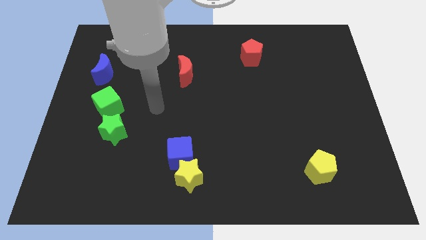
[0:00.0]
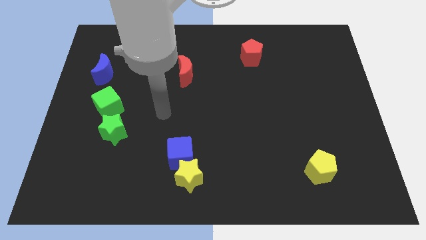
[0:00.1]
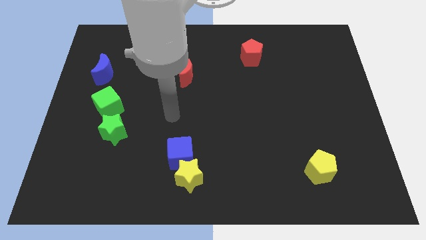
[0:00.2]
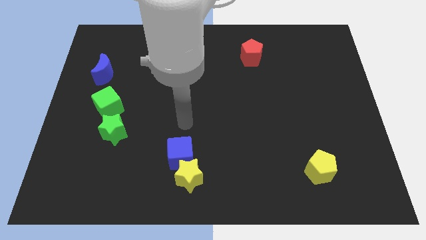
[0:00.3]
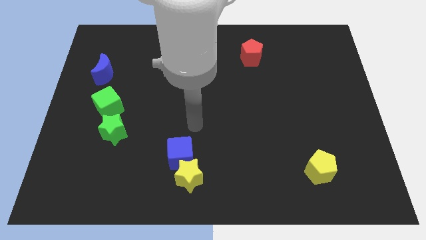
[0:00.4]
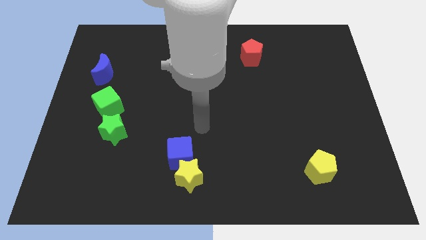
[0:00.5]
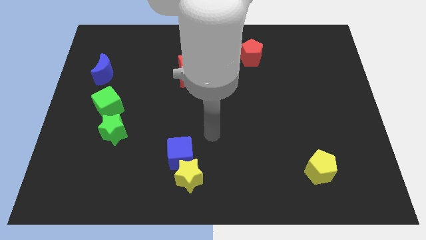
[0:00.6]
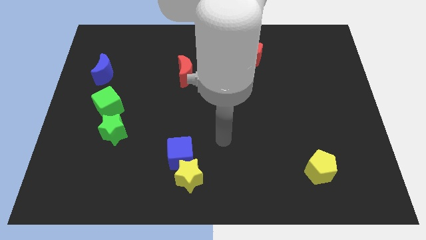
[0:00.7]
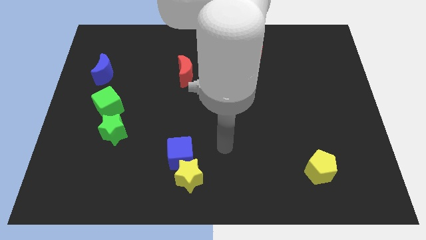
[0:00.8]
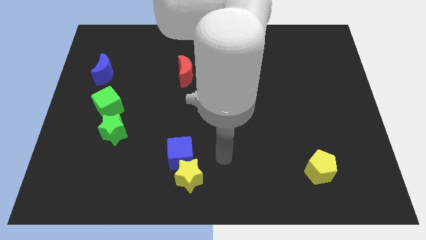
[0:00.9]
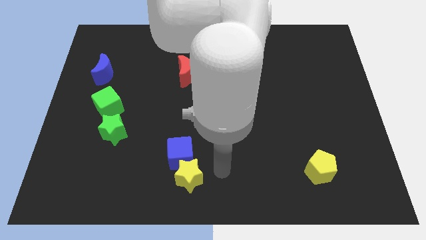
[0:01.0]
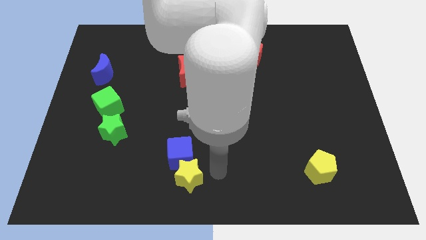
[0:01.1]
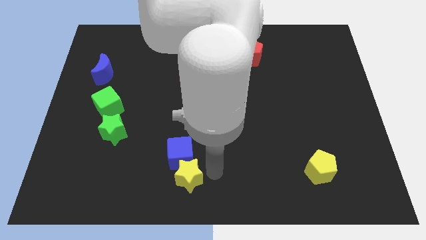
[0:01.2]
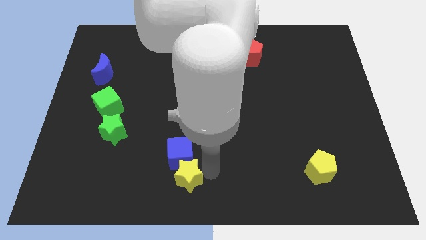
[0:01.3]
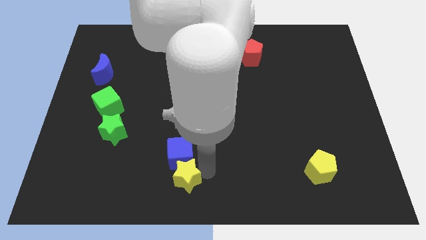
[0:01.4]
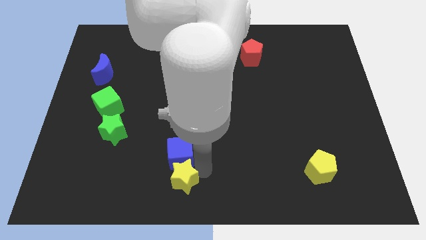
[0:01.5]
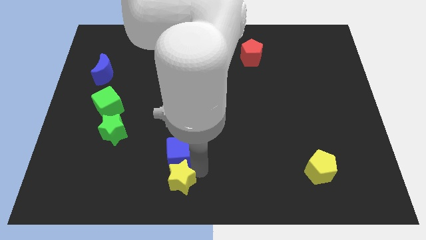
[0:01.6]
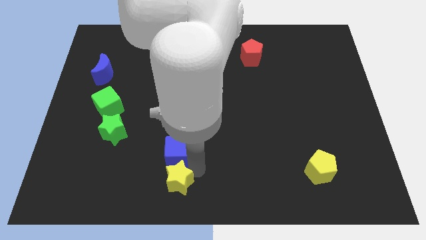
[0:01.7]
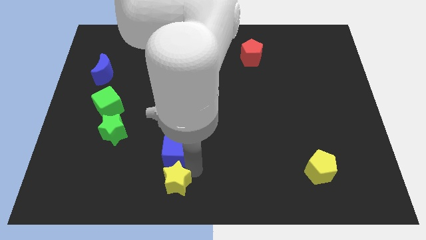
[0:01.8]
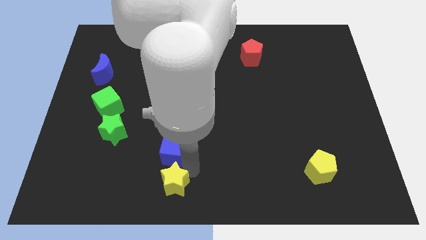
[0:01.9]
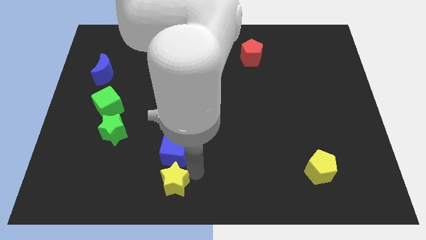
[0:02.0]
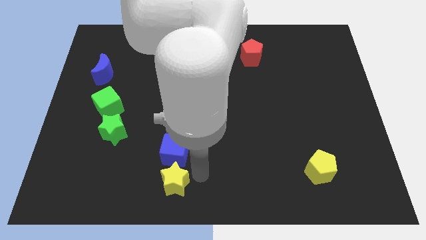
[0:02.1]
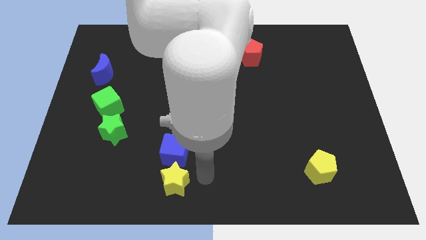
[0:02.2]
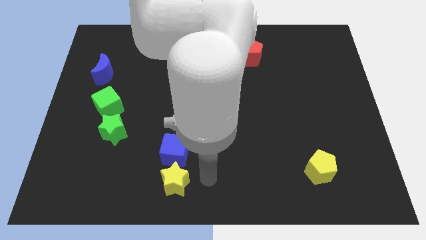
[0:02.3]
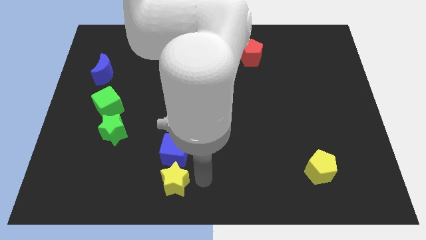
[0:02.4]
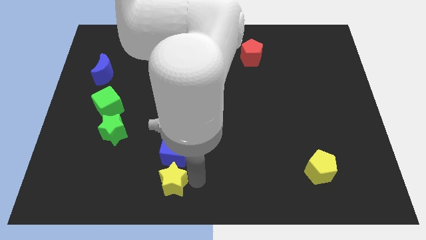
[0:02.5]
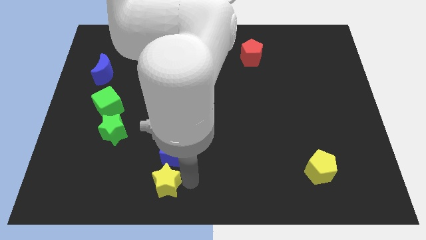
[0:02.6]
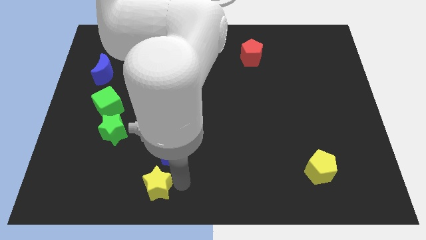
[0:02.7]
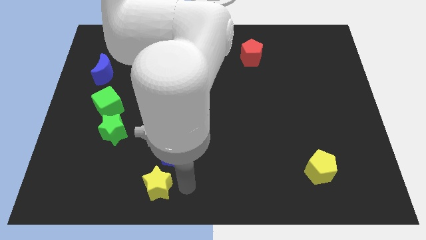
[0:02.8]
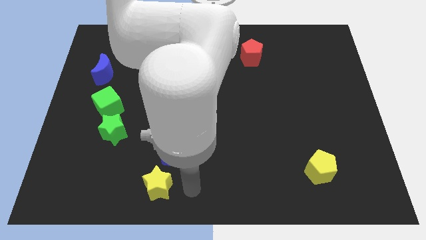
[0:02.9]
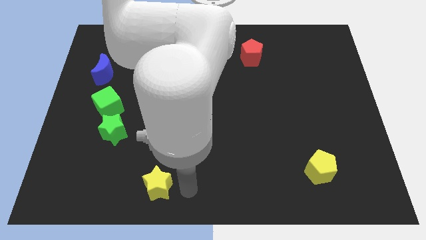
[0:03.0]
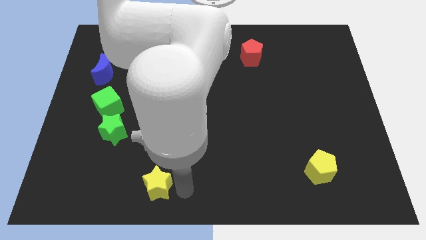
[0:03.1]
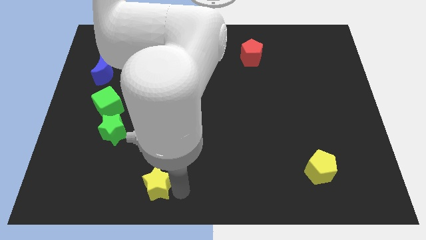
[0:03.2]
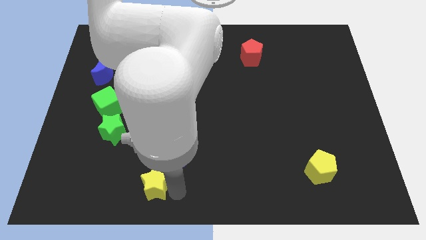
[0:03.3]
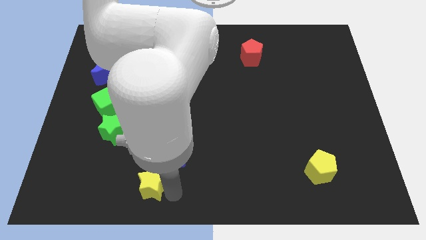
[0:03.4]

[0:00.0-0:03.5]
slightly move the yellow star to the left

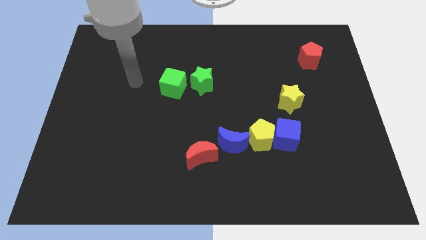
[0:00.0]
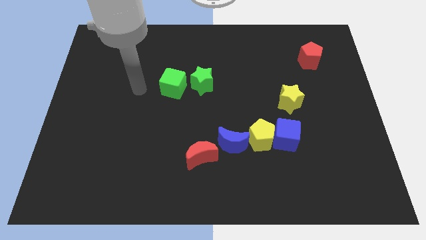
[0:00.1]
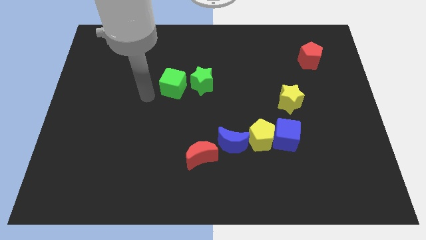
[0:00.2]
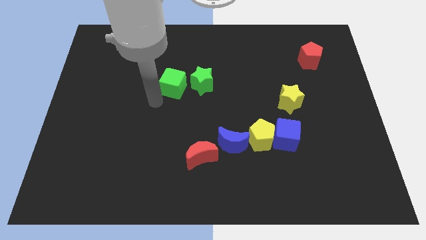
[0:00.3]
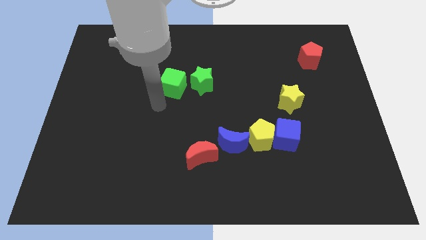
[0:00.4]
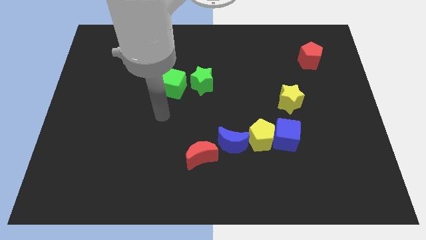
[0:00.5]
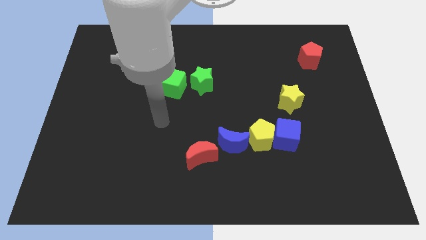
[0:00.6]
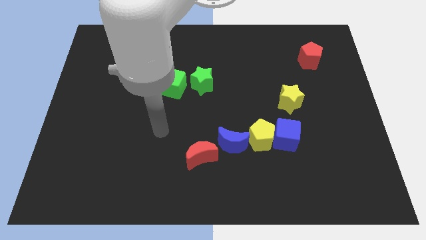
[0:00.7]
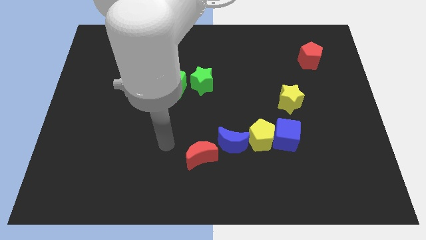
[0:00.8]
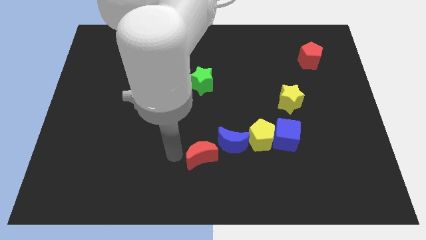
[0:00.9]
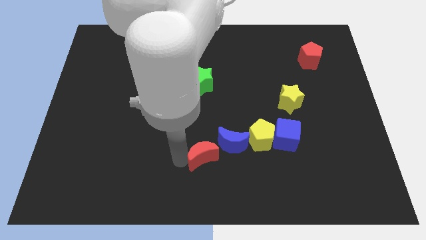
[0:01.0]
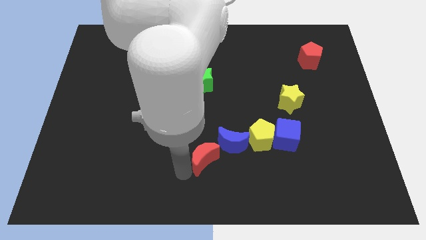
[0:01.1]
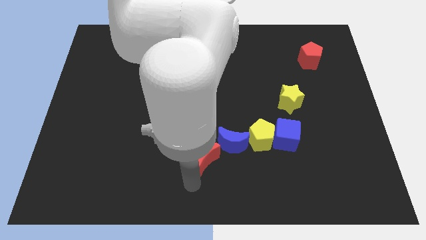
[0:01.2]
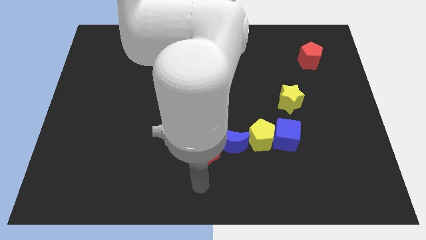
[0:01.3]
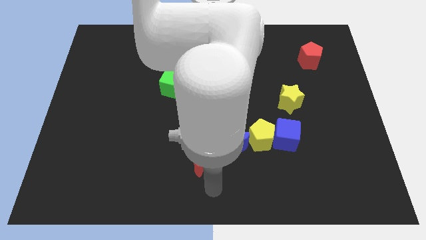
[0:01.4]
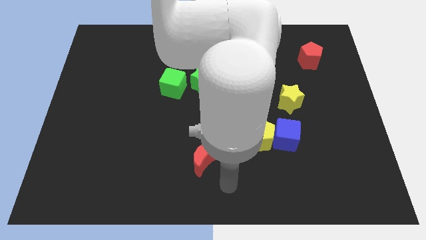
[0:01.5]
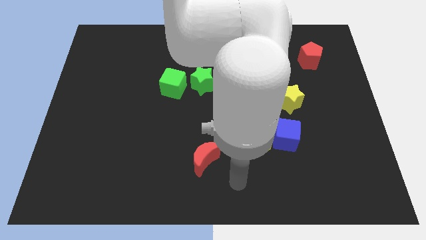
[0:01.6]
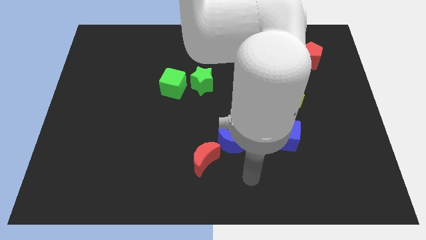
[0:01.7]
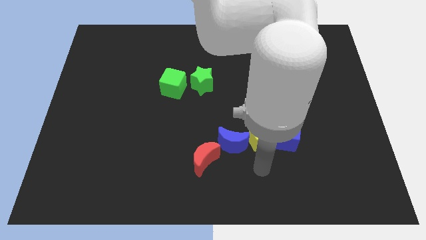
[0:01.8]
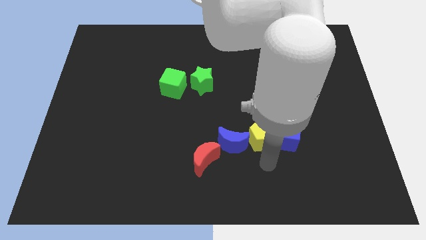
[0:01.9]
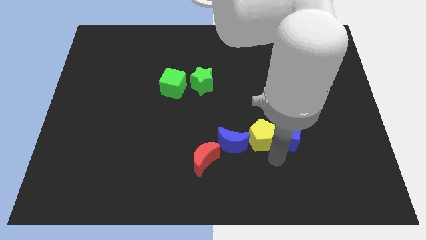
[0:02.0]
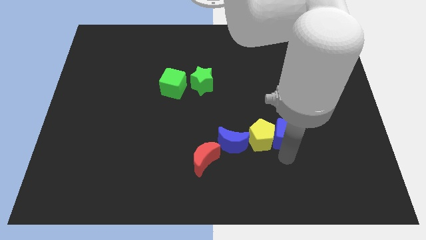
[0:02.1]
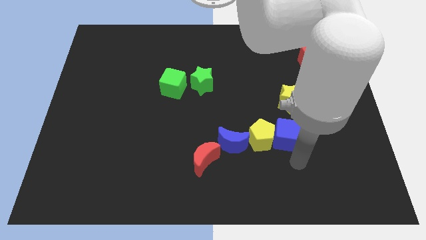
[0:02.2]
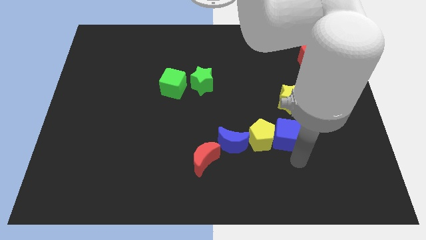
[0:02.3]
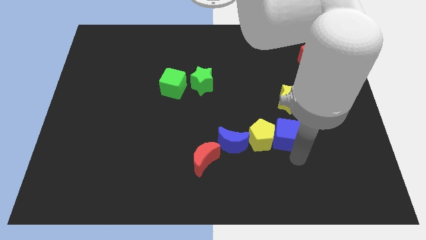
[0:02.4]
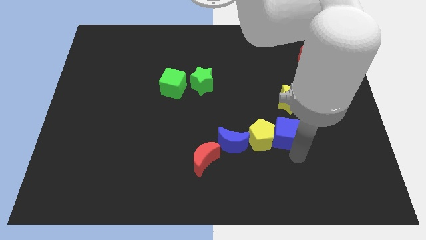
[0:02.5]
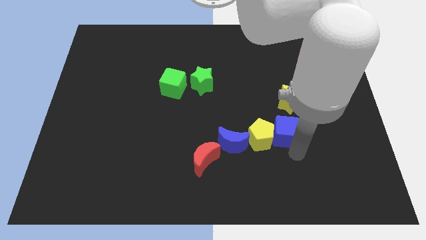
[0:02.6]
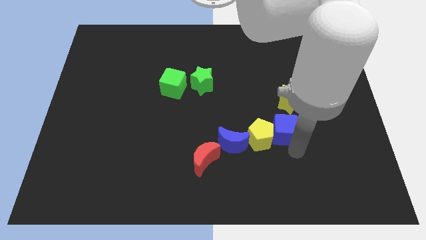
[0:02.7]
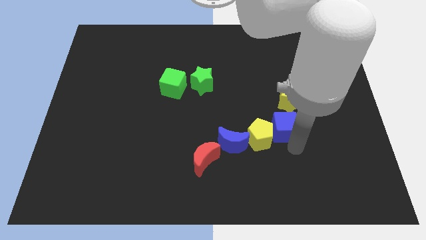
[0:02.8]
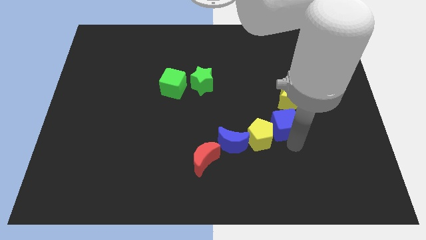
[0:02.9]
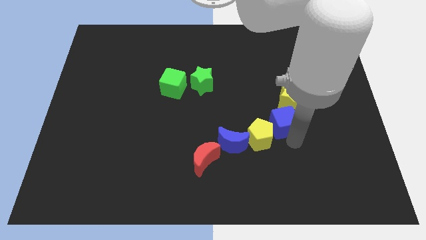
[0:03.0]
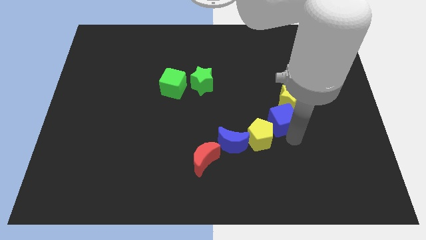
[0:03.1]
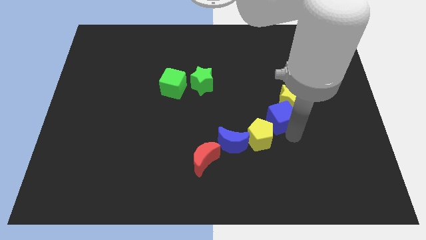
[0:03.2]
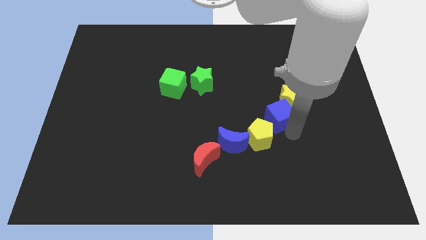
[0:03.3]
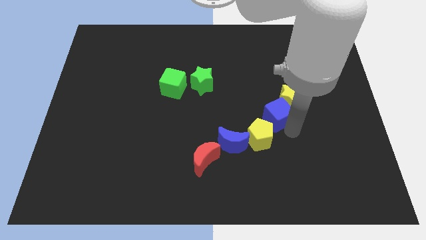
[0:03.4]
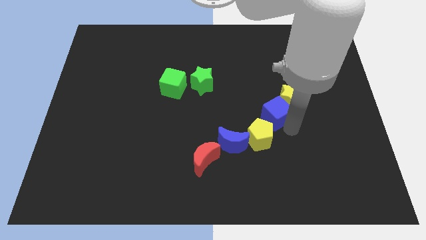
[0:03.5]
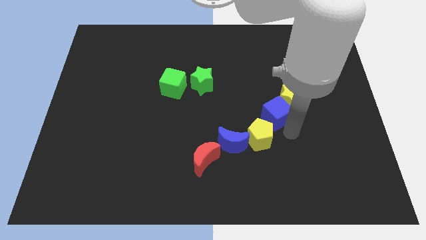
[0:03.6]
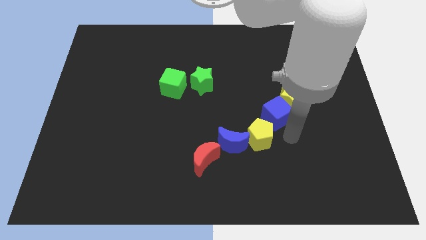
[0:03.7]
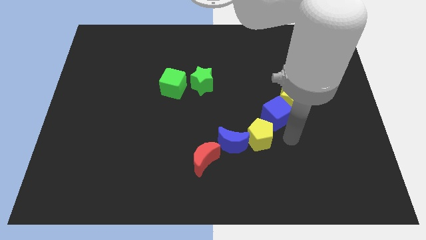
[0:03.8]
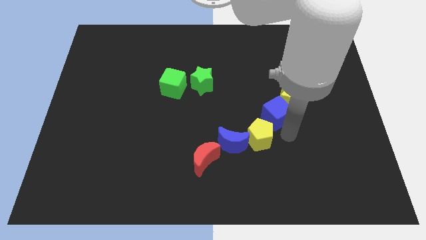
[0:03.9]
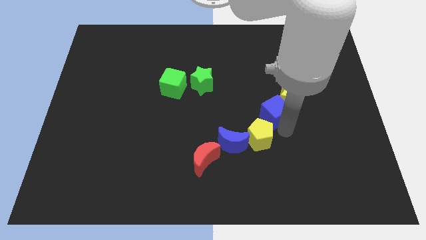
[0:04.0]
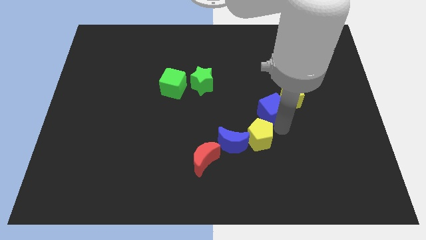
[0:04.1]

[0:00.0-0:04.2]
slide the blue cube somewhat up

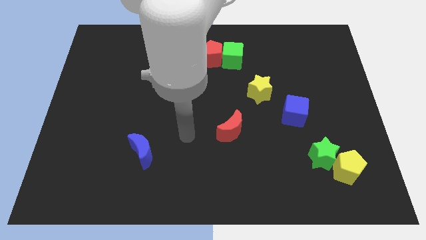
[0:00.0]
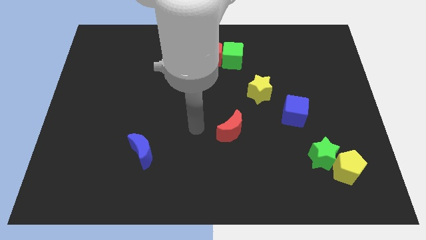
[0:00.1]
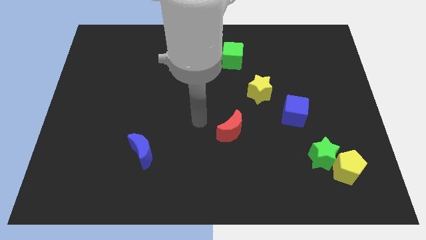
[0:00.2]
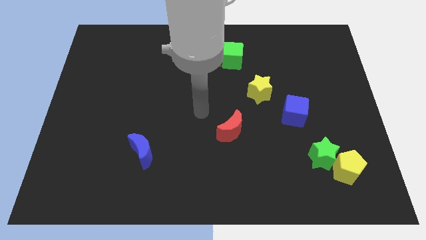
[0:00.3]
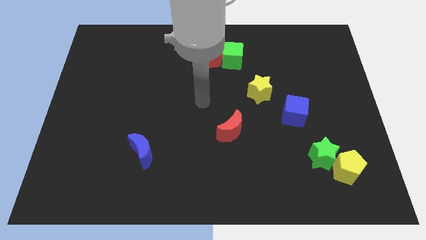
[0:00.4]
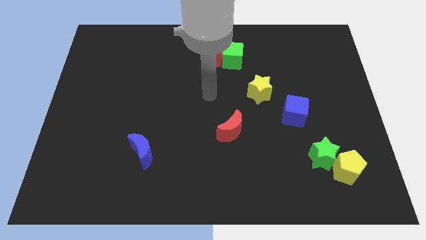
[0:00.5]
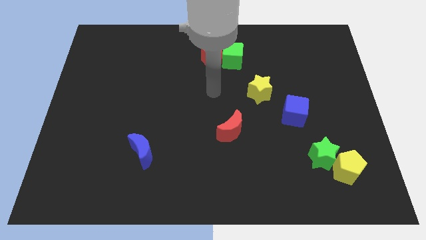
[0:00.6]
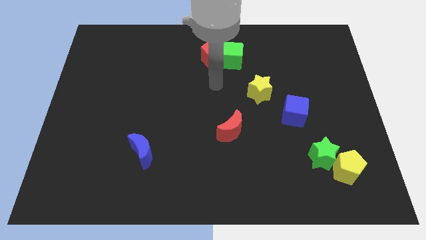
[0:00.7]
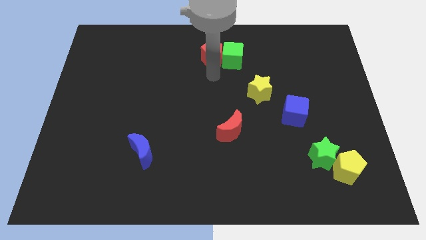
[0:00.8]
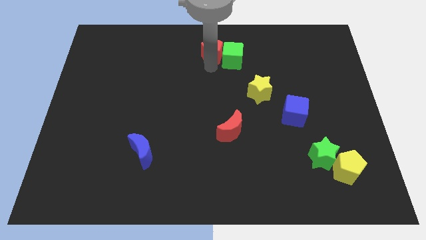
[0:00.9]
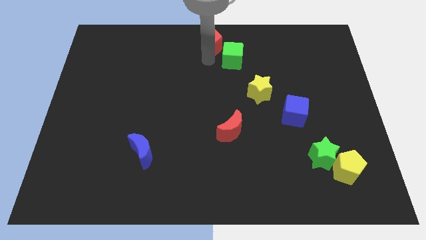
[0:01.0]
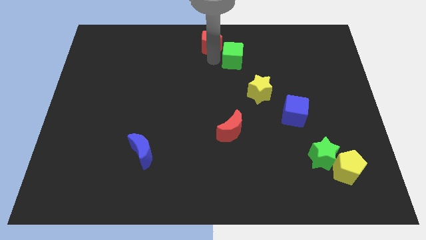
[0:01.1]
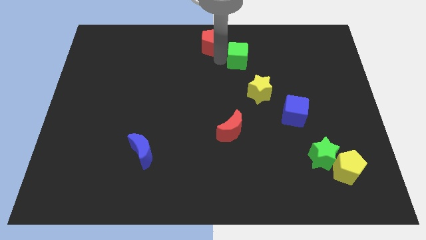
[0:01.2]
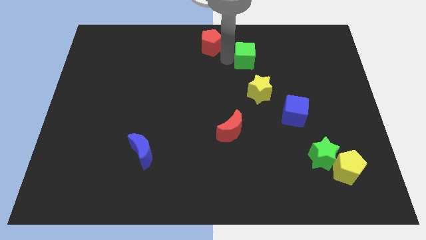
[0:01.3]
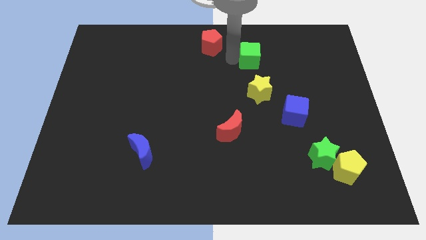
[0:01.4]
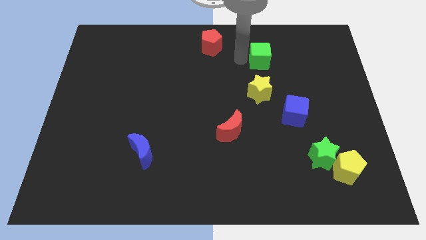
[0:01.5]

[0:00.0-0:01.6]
move the green cube a bit right
